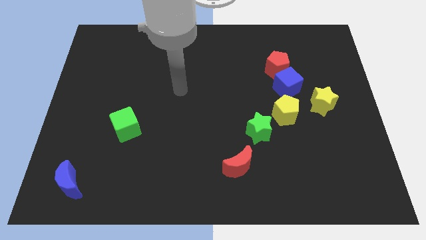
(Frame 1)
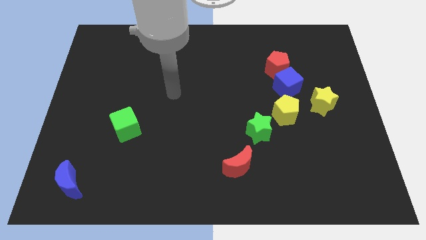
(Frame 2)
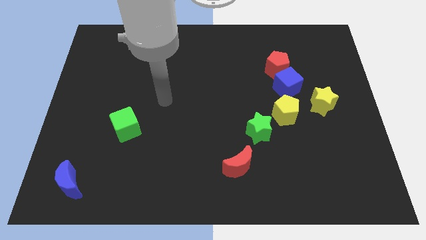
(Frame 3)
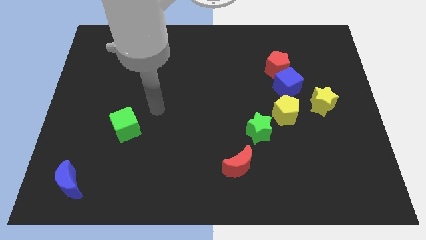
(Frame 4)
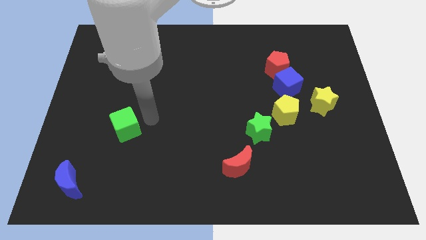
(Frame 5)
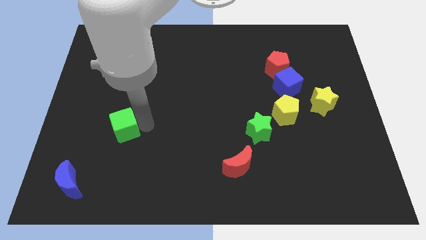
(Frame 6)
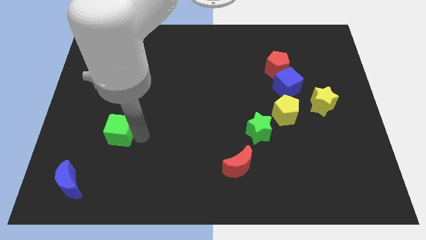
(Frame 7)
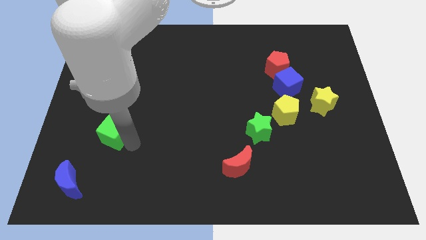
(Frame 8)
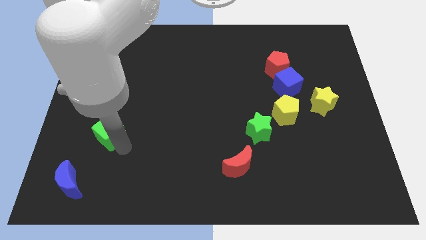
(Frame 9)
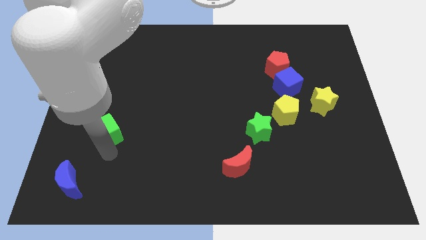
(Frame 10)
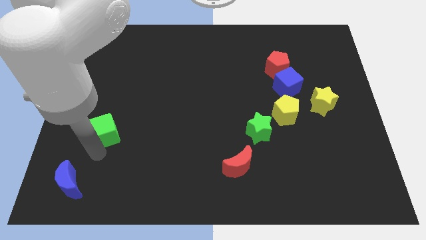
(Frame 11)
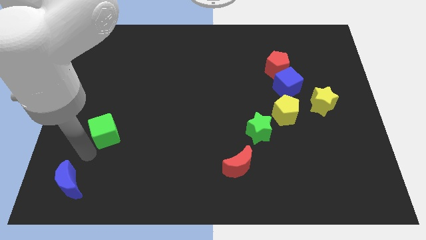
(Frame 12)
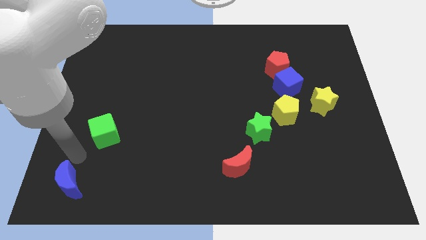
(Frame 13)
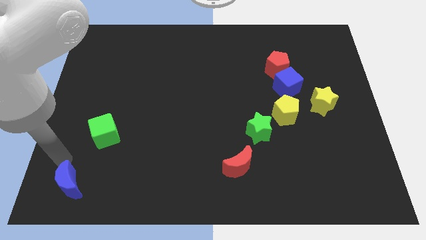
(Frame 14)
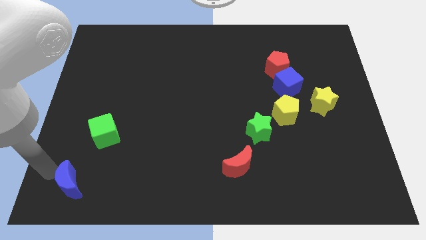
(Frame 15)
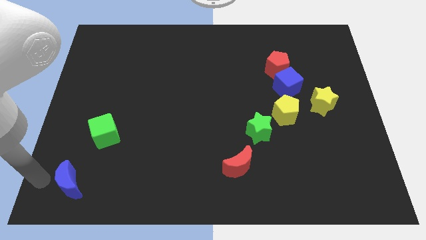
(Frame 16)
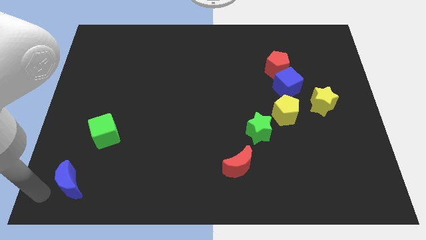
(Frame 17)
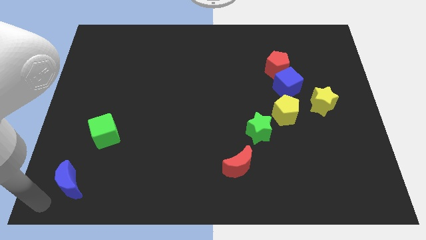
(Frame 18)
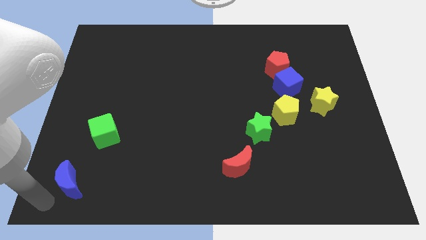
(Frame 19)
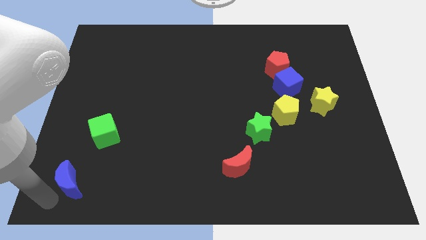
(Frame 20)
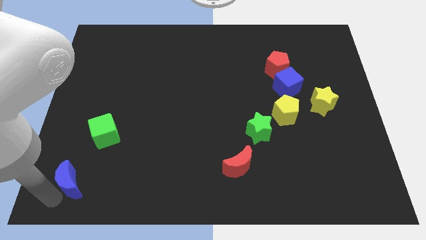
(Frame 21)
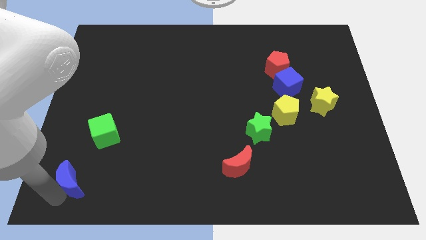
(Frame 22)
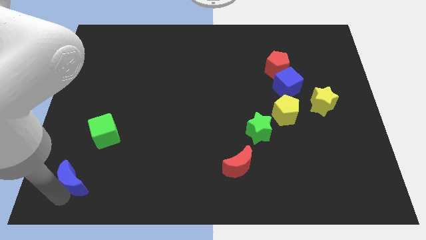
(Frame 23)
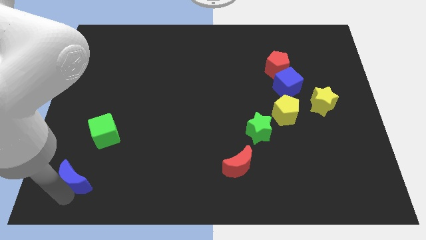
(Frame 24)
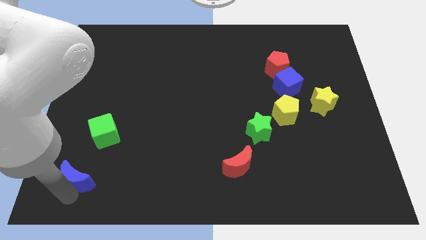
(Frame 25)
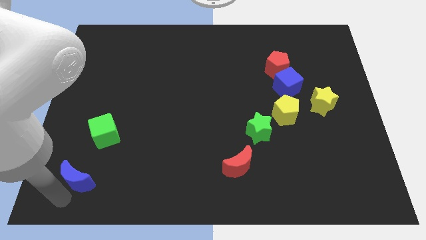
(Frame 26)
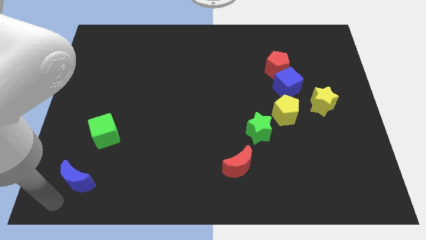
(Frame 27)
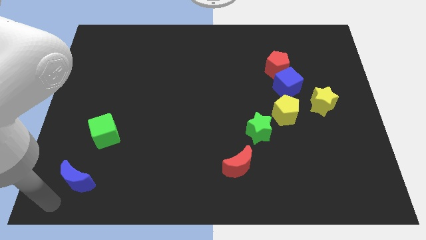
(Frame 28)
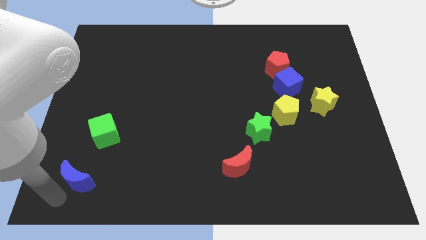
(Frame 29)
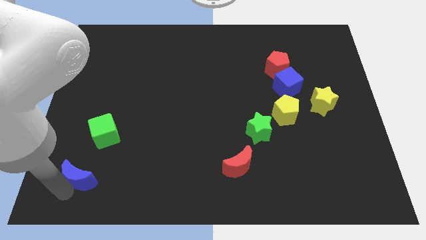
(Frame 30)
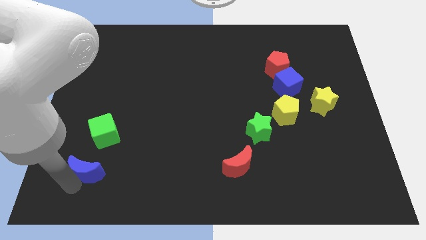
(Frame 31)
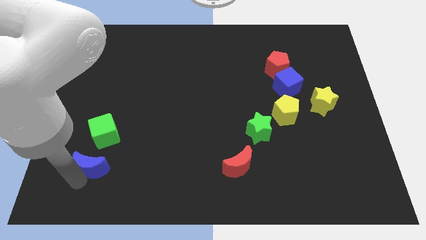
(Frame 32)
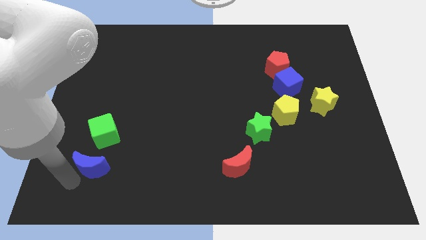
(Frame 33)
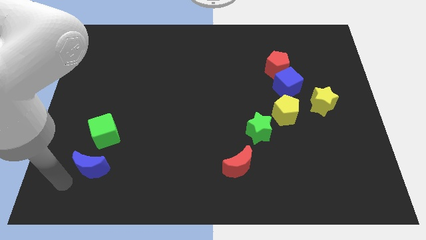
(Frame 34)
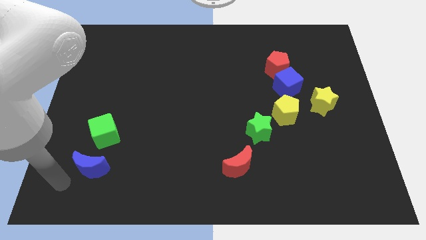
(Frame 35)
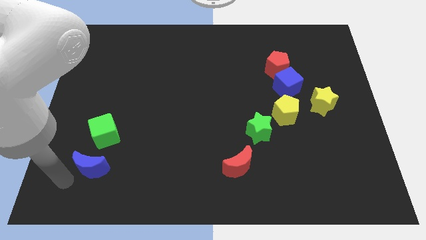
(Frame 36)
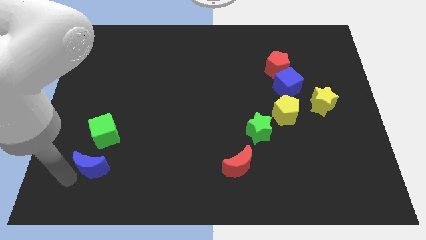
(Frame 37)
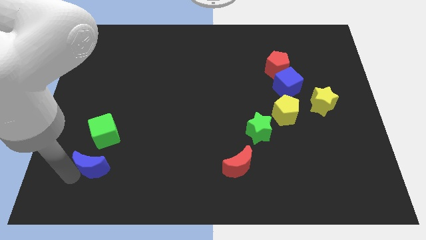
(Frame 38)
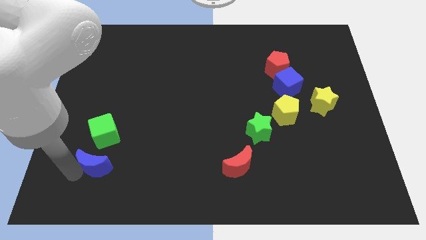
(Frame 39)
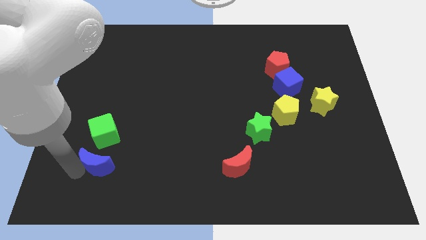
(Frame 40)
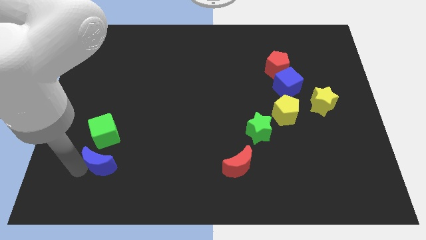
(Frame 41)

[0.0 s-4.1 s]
push the blue moon up and then to the right a little

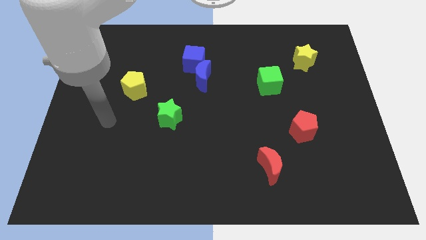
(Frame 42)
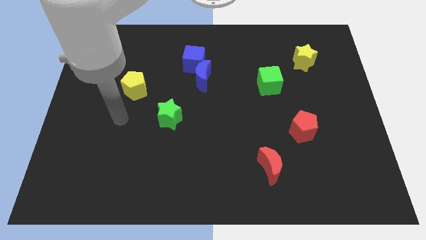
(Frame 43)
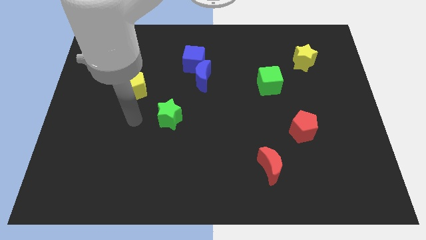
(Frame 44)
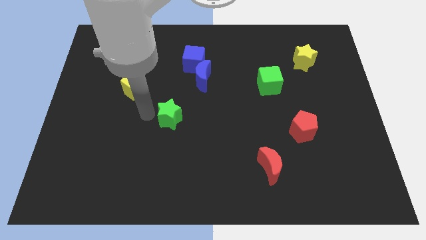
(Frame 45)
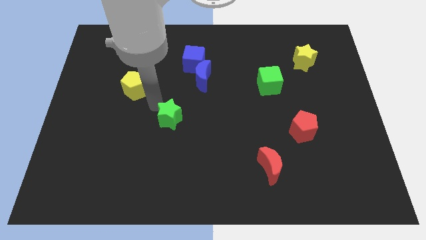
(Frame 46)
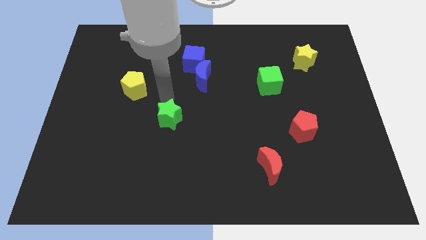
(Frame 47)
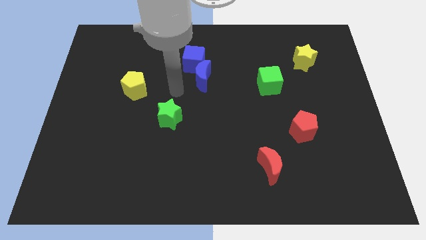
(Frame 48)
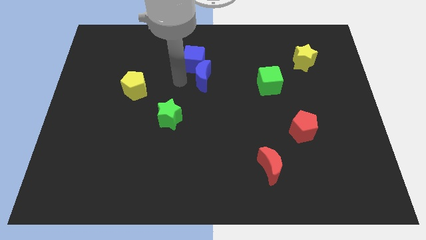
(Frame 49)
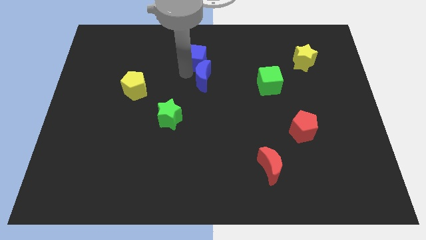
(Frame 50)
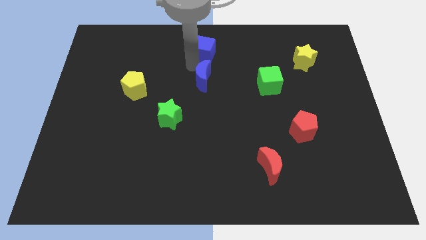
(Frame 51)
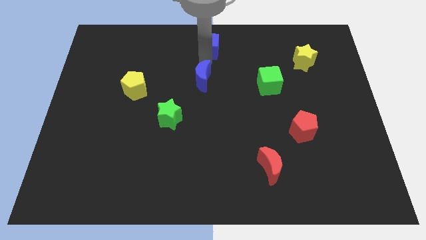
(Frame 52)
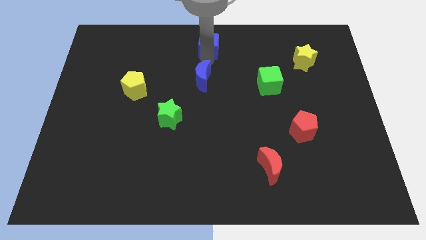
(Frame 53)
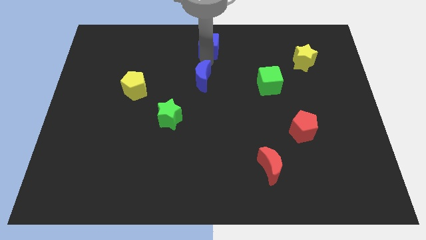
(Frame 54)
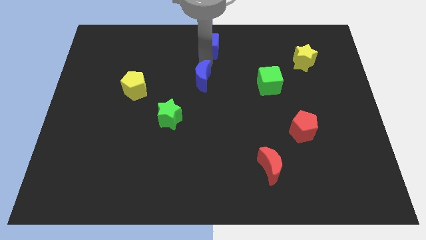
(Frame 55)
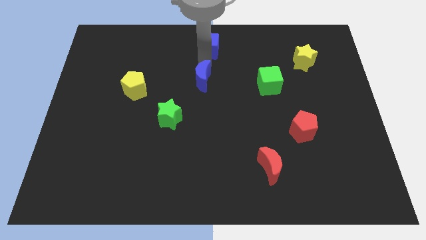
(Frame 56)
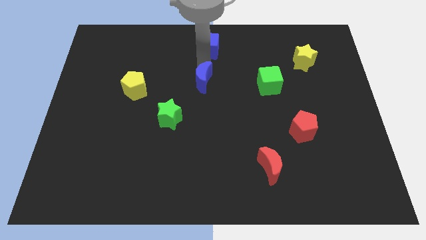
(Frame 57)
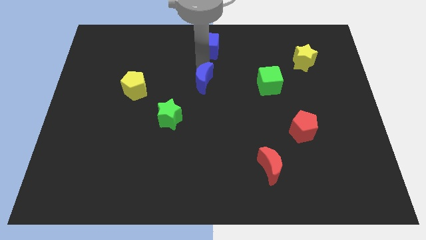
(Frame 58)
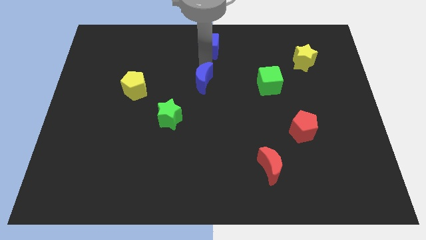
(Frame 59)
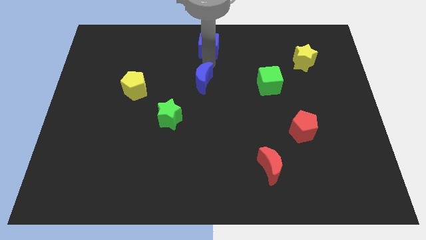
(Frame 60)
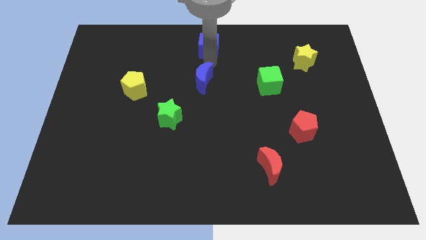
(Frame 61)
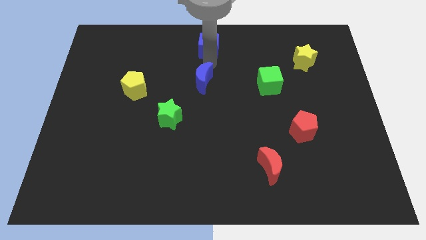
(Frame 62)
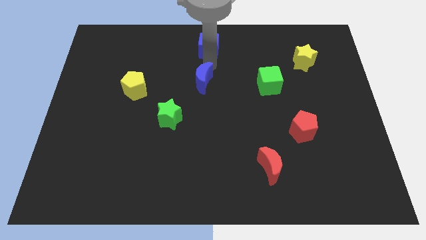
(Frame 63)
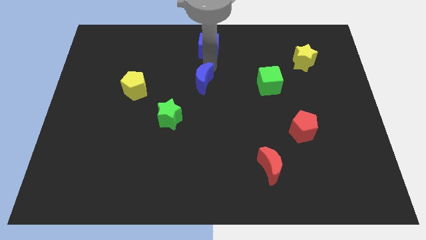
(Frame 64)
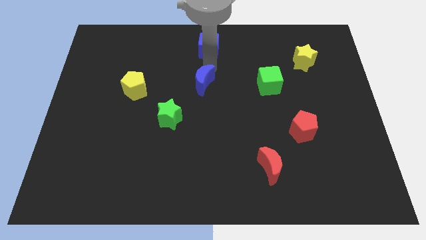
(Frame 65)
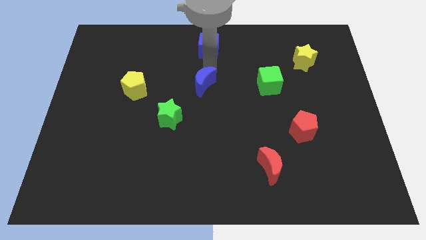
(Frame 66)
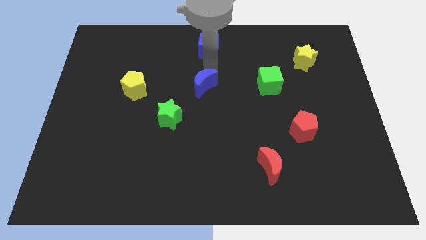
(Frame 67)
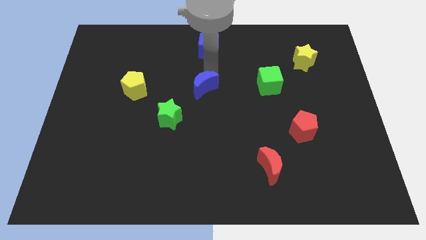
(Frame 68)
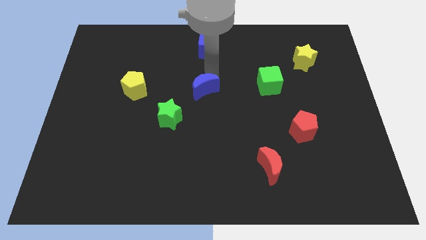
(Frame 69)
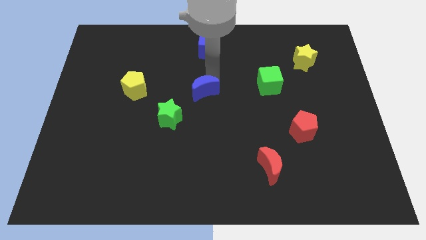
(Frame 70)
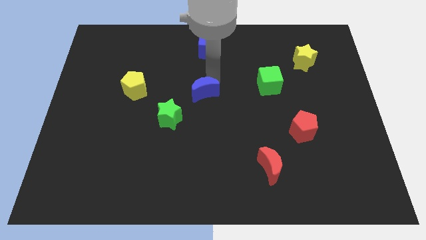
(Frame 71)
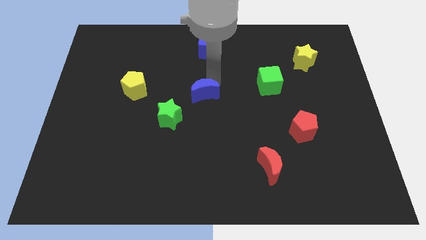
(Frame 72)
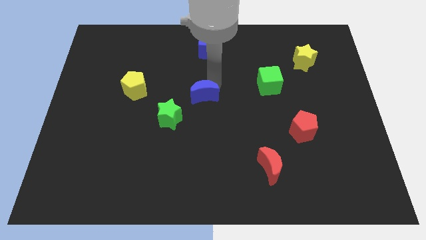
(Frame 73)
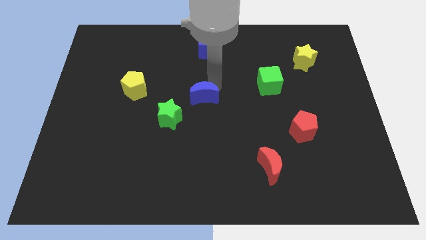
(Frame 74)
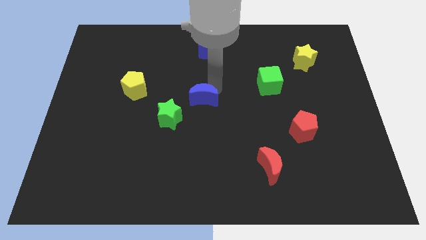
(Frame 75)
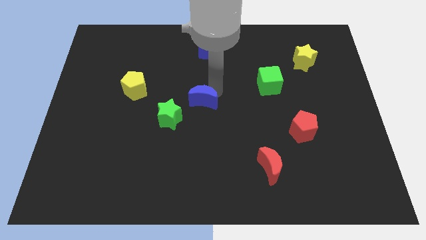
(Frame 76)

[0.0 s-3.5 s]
move the blue moon downwards a bit

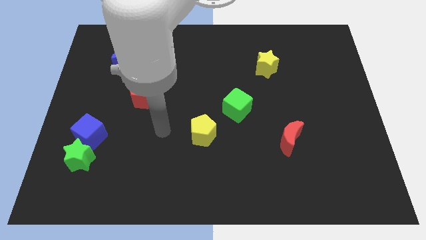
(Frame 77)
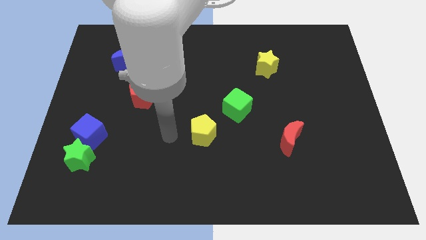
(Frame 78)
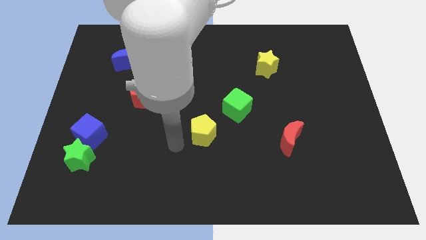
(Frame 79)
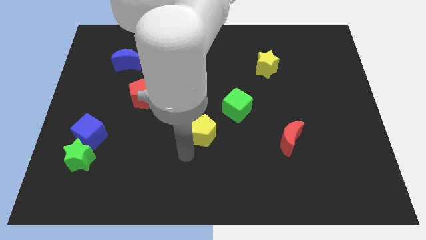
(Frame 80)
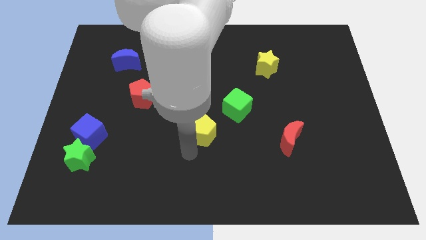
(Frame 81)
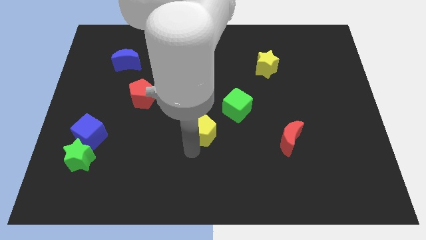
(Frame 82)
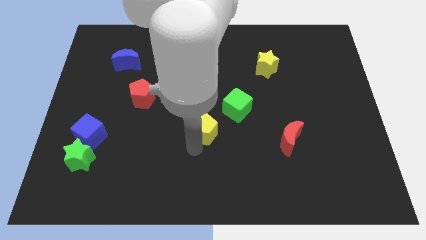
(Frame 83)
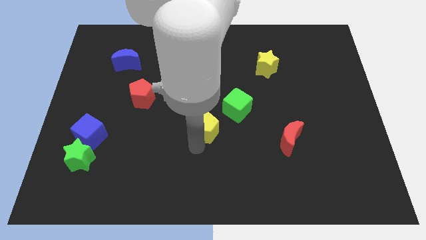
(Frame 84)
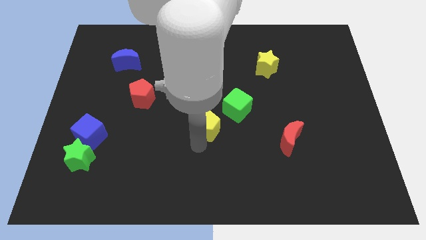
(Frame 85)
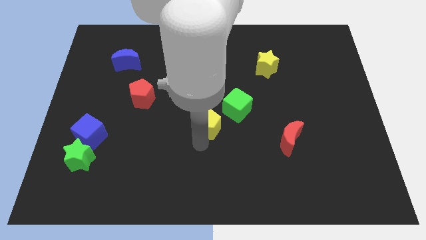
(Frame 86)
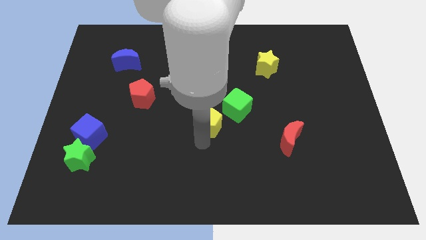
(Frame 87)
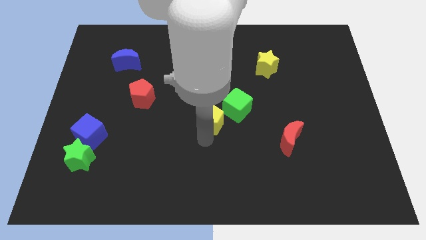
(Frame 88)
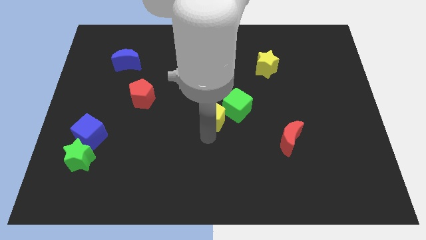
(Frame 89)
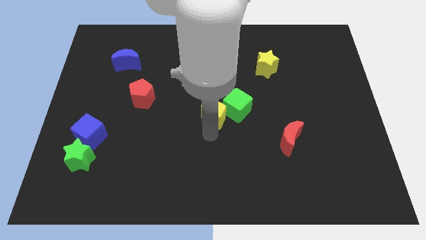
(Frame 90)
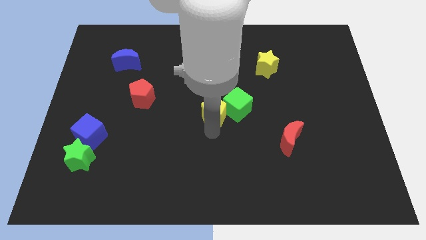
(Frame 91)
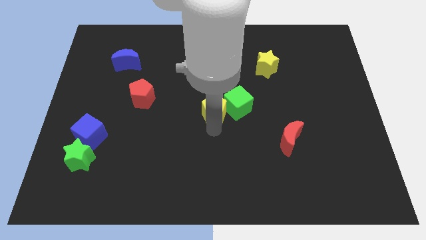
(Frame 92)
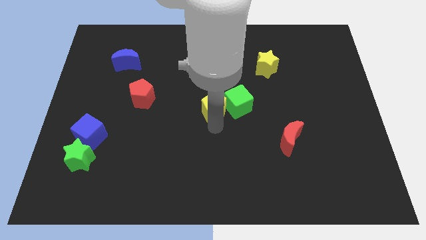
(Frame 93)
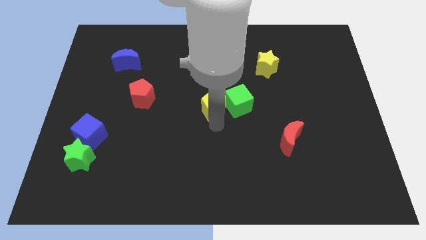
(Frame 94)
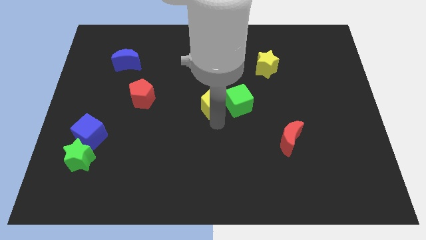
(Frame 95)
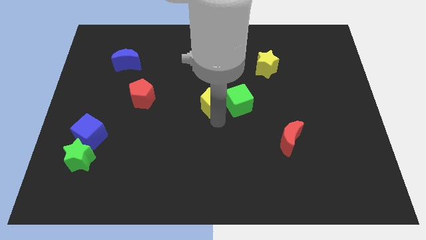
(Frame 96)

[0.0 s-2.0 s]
slightly move the yellow pentagon up and then right
